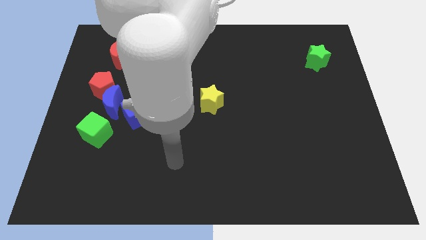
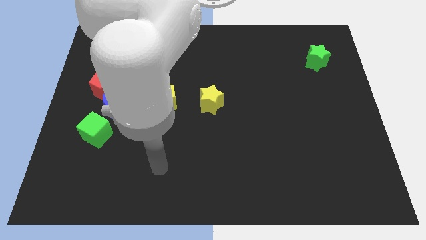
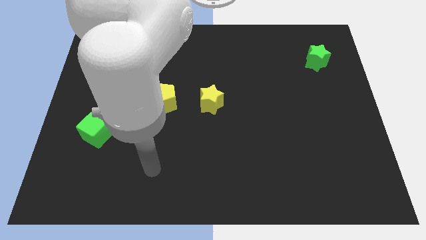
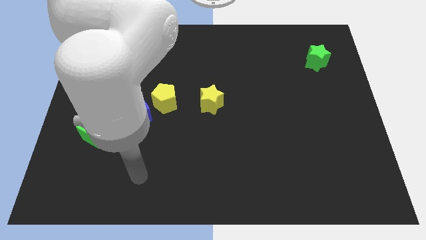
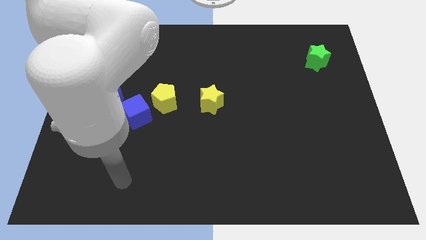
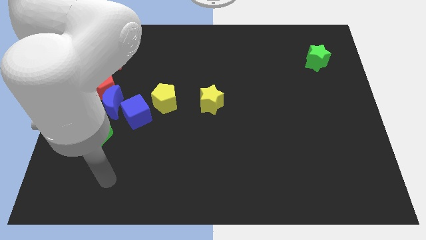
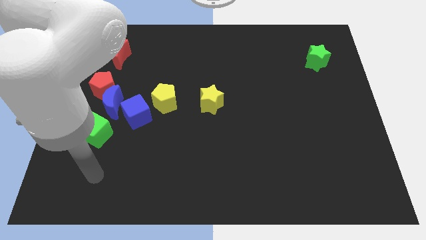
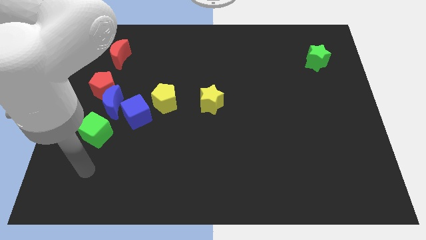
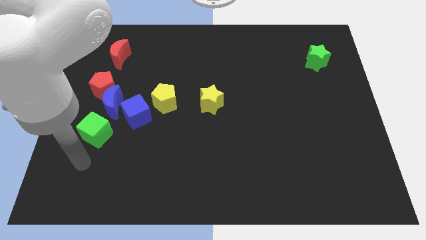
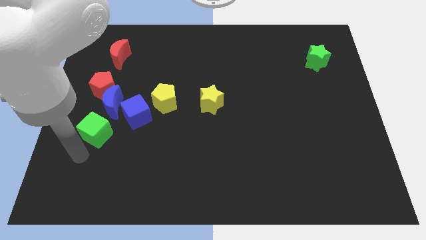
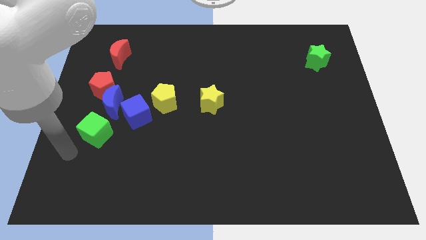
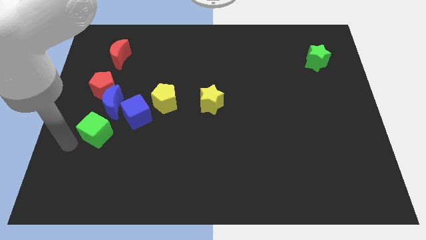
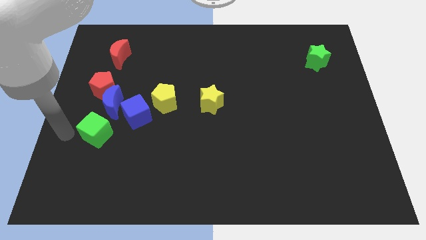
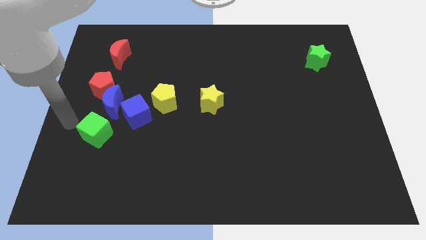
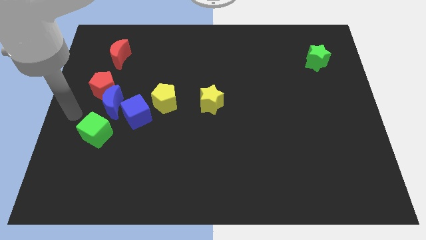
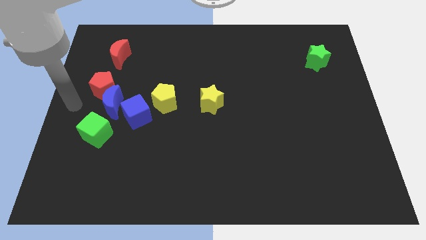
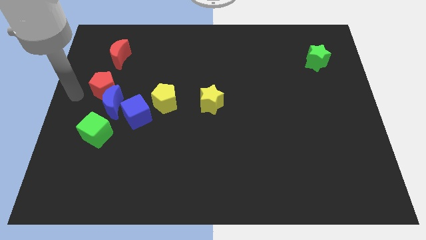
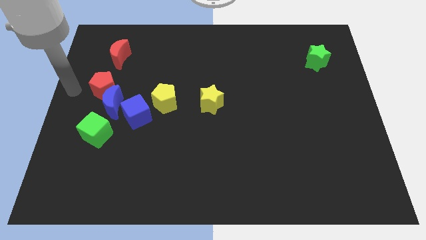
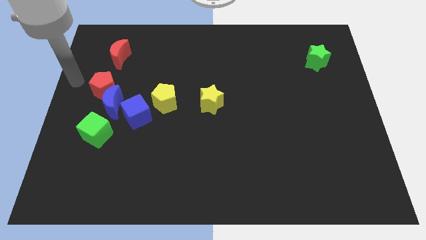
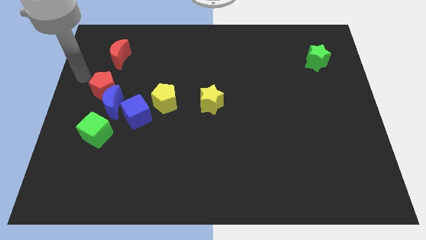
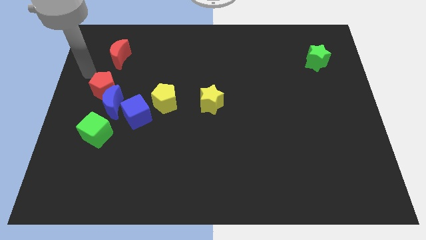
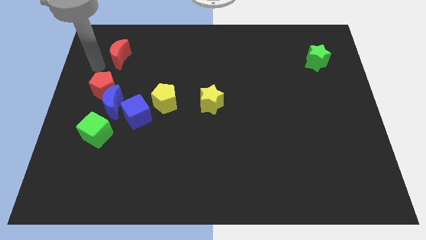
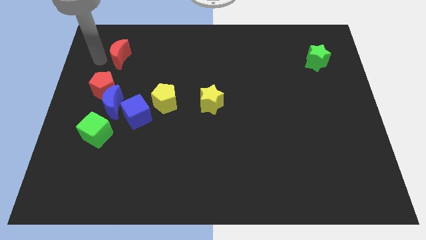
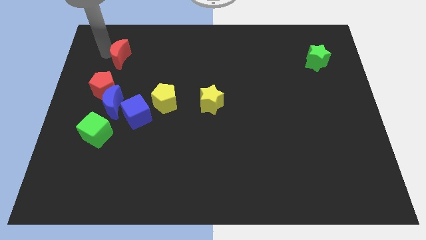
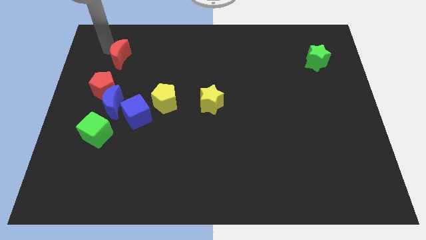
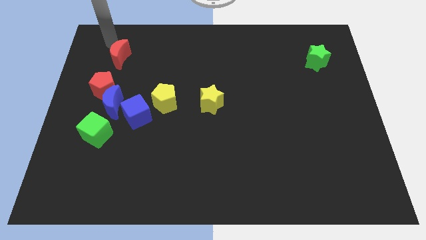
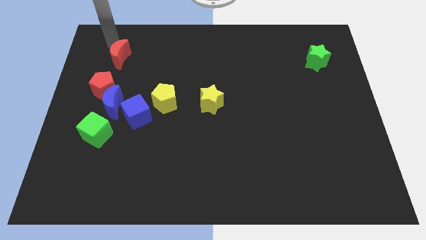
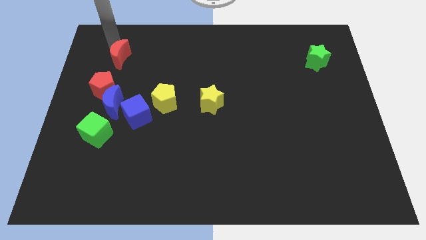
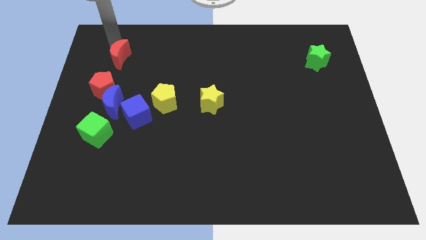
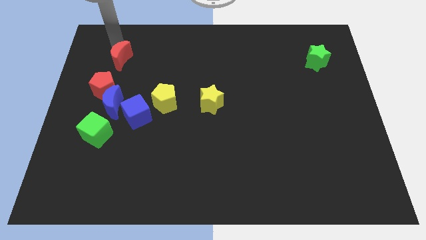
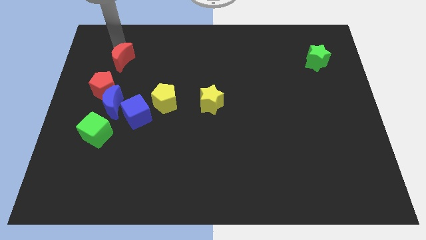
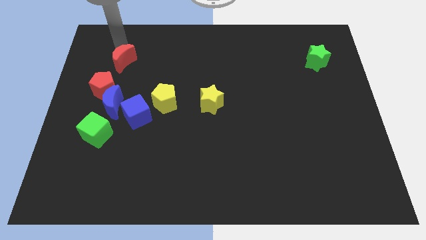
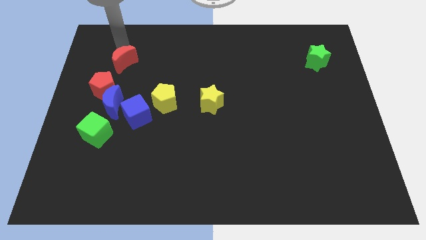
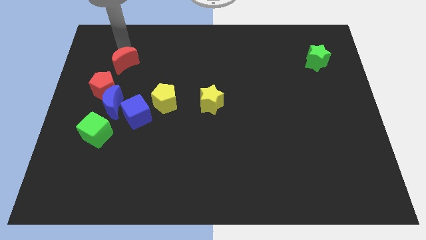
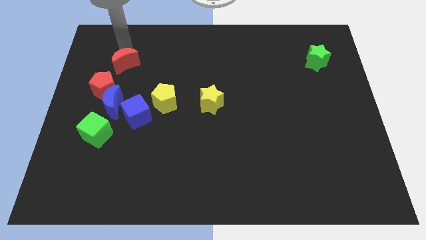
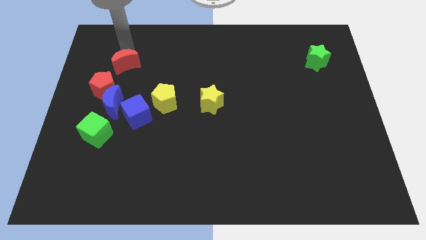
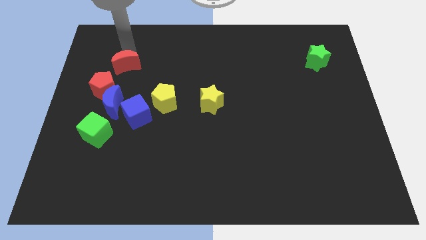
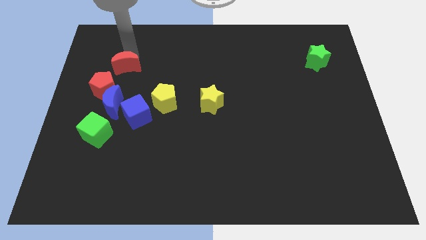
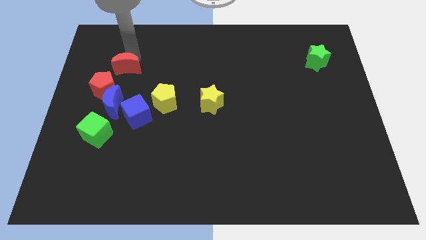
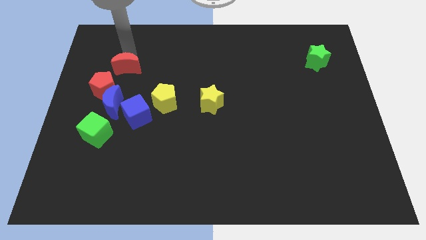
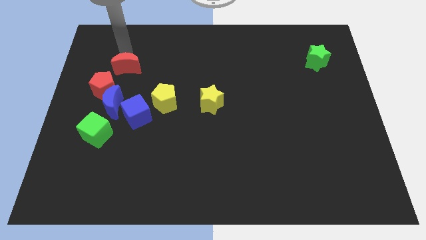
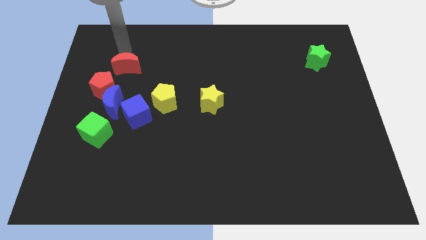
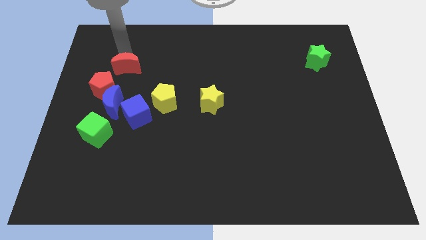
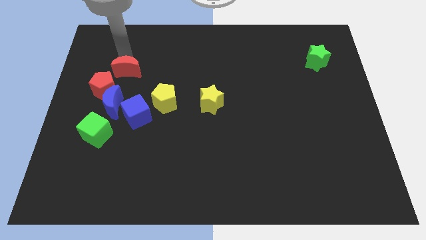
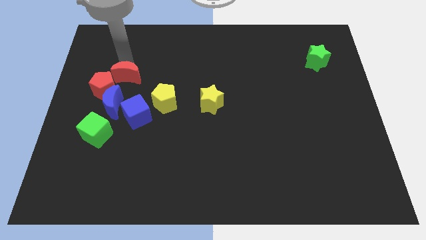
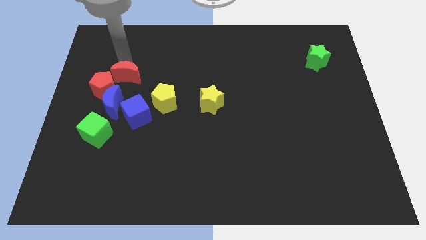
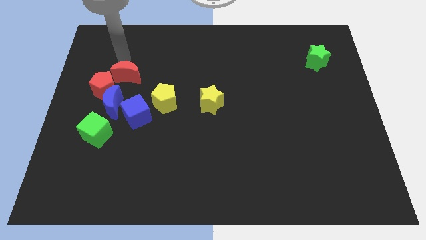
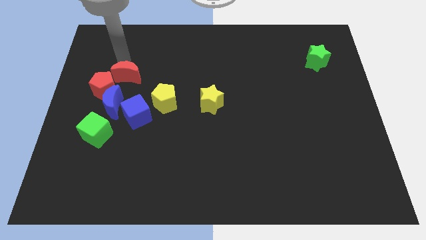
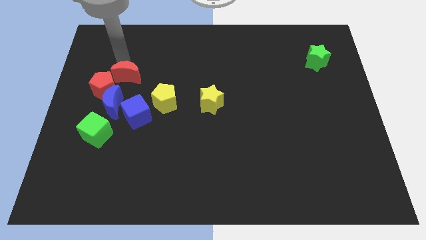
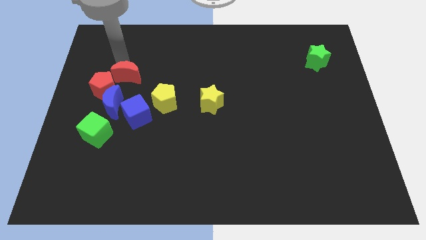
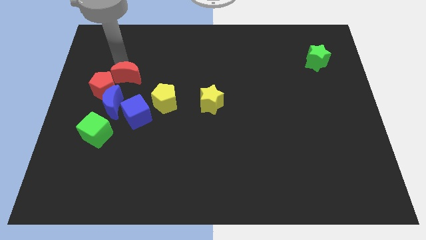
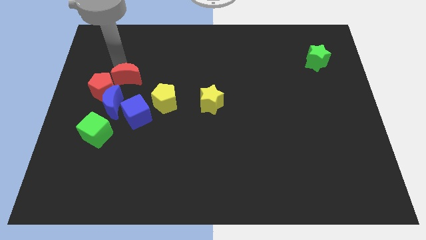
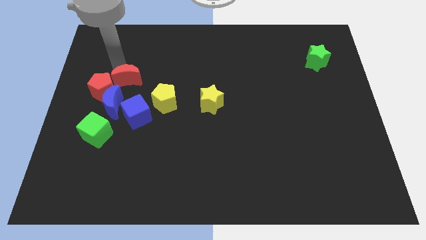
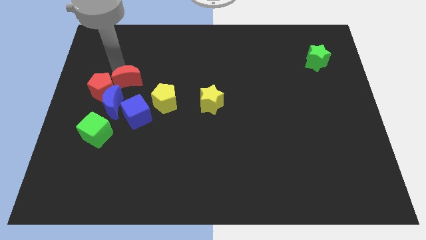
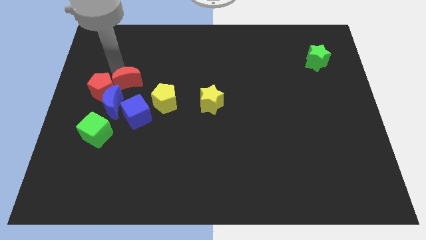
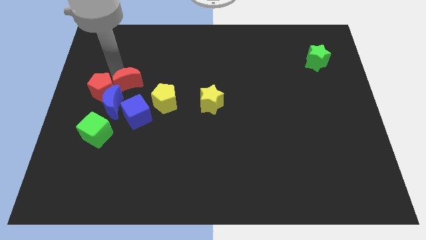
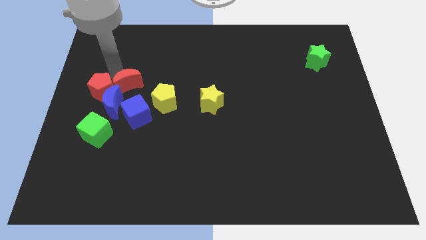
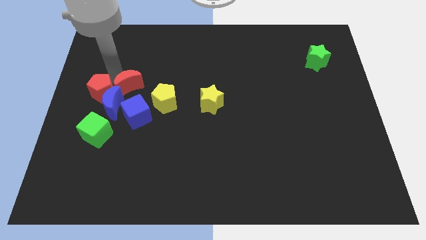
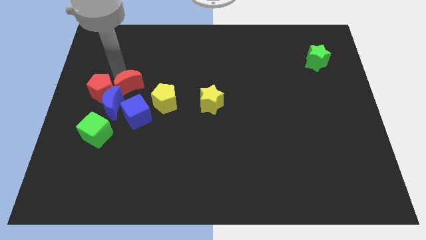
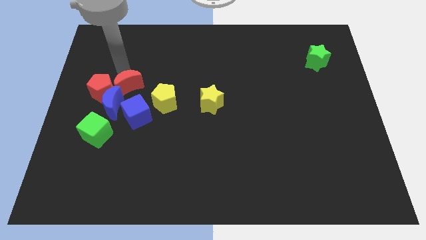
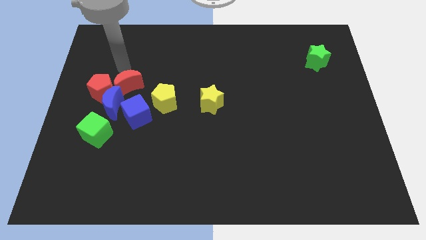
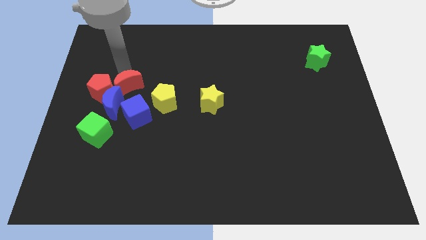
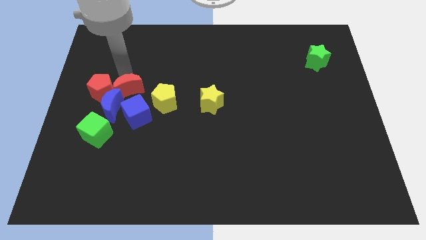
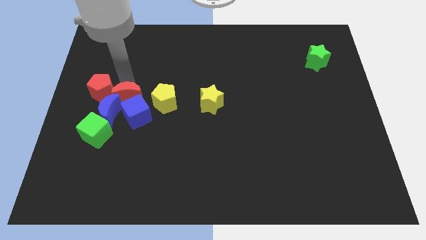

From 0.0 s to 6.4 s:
push the red moon towards the blue cube

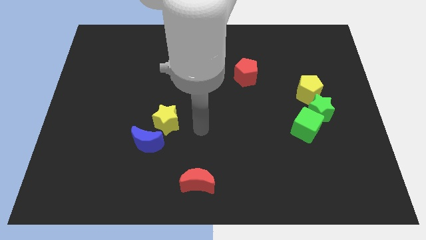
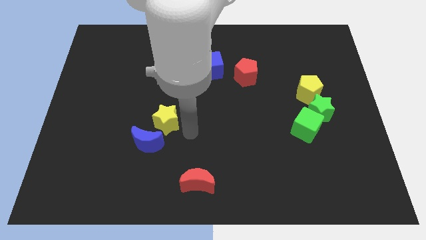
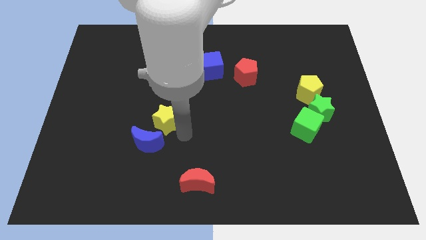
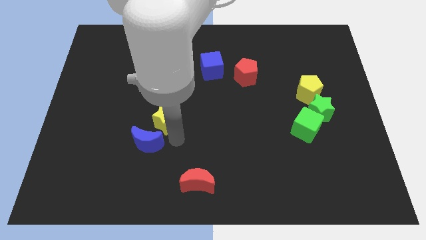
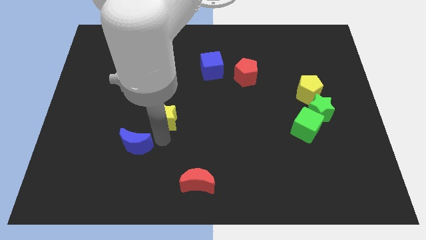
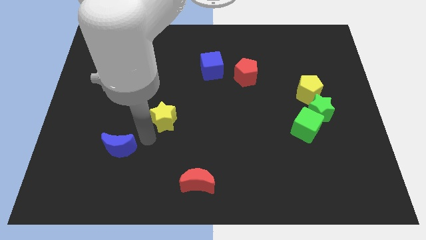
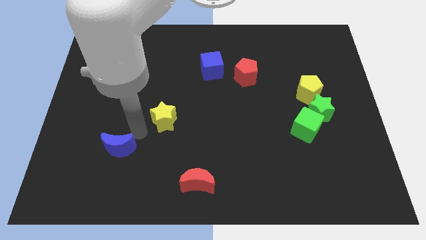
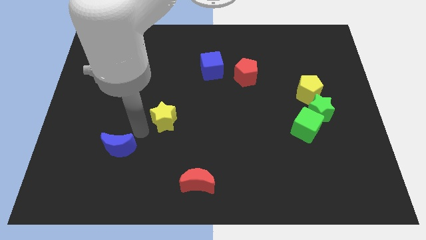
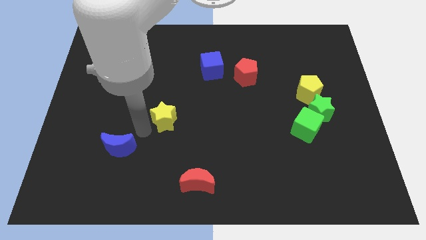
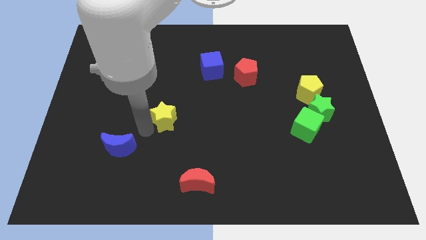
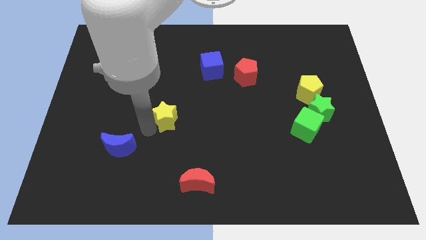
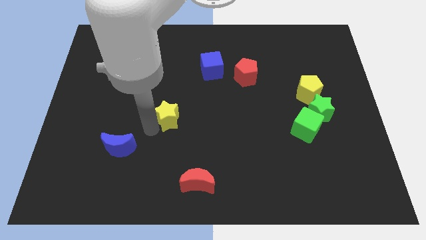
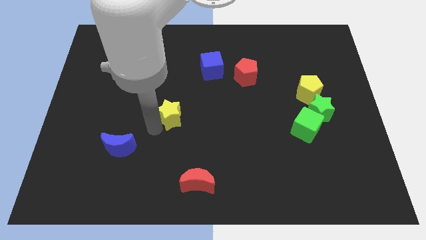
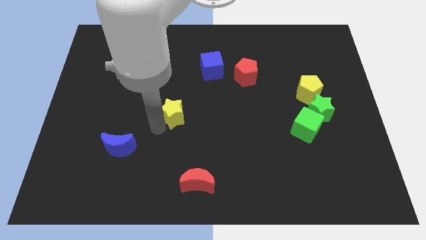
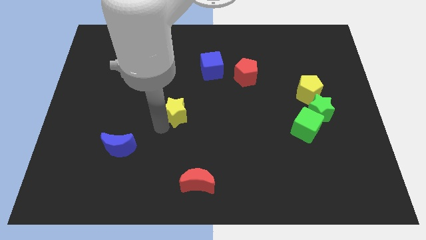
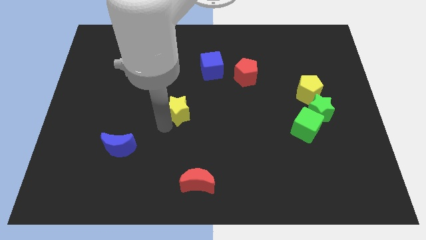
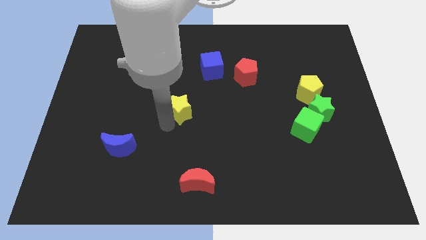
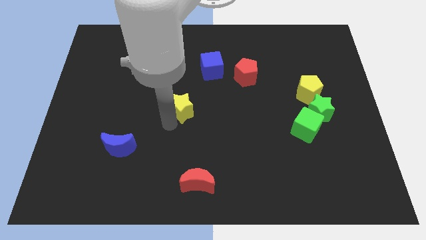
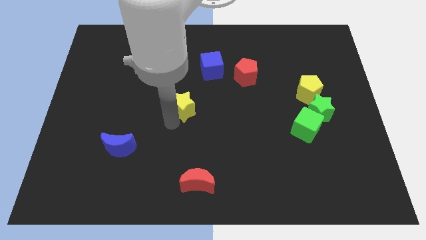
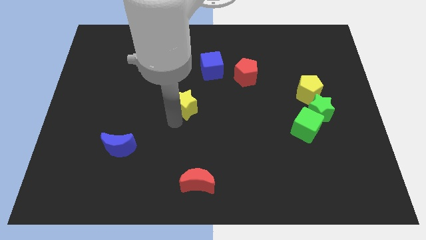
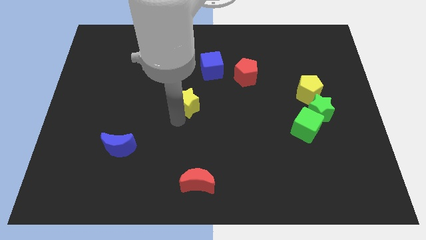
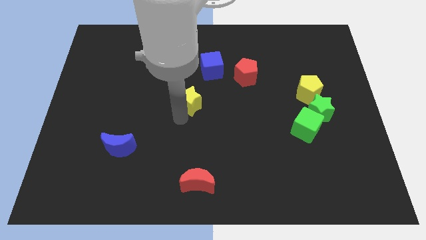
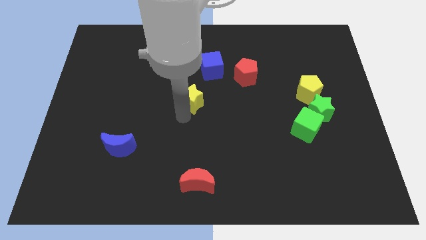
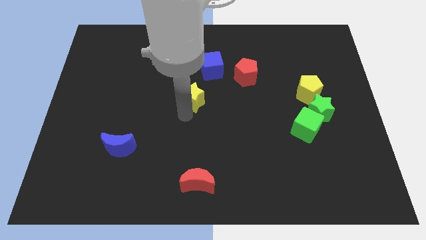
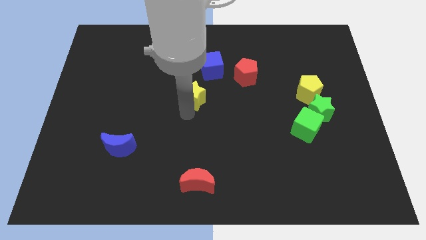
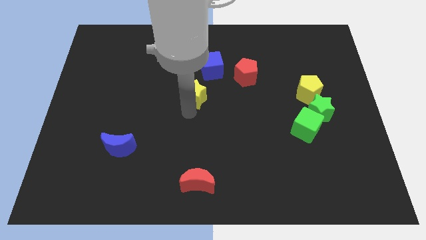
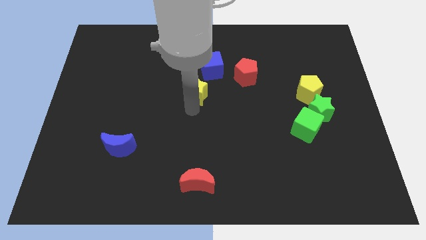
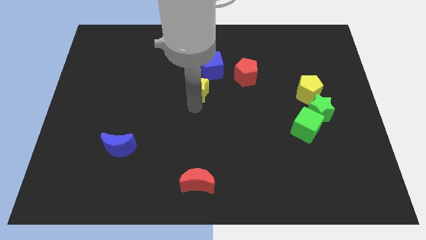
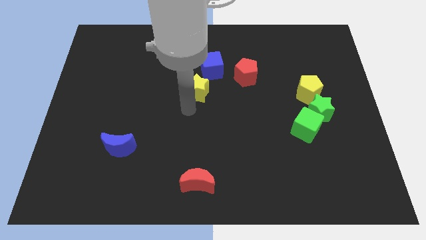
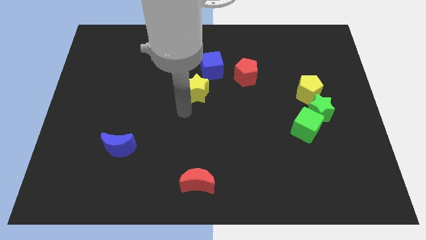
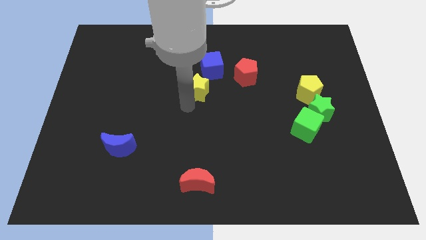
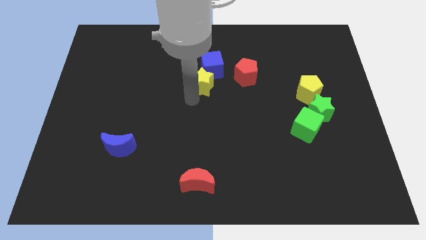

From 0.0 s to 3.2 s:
put the yellow star next to the blue cube
